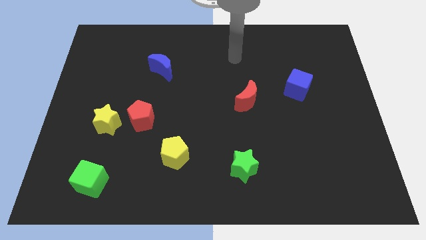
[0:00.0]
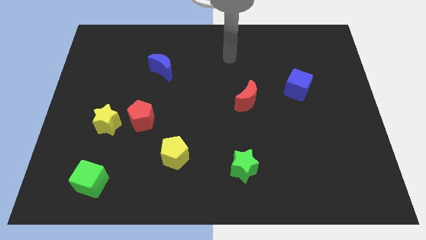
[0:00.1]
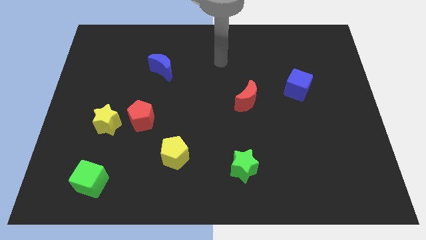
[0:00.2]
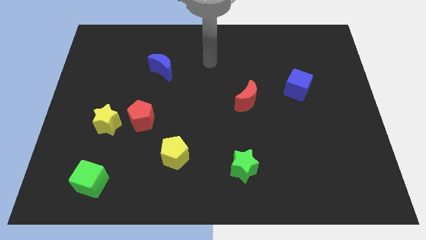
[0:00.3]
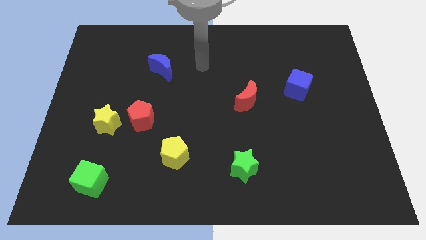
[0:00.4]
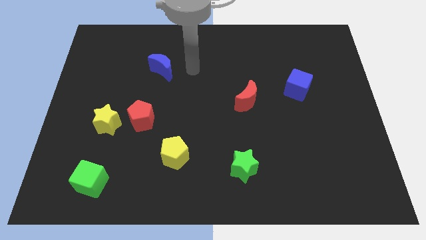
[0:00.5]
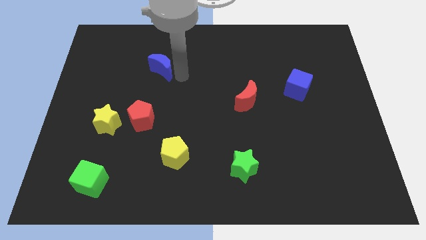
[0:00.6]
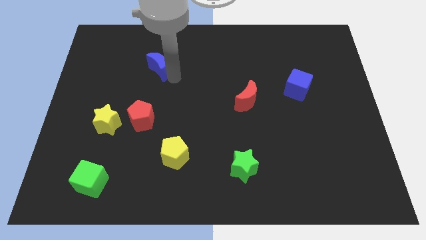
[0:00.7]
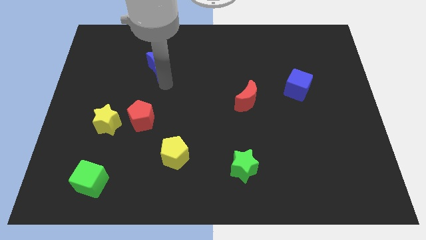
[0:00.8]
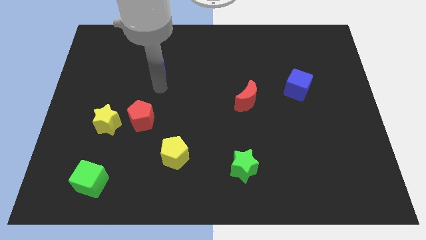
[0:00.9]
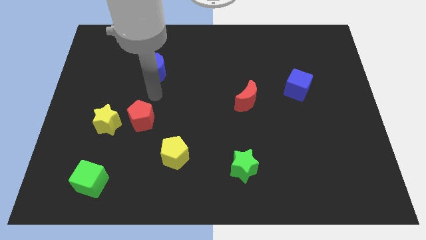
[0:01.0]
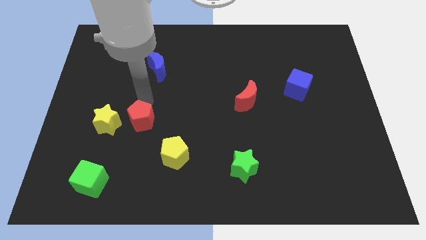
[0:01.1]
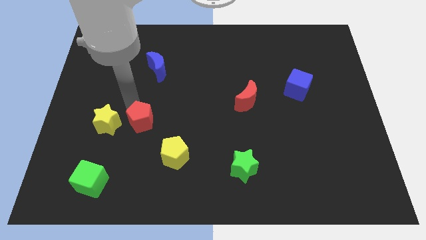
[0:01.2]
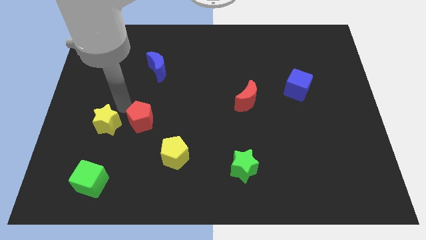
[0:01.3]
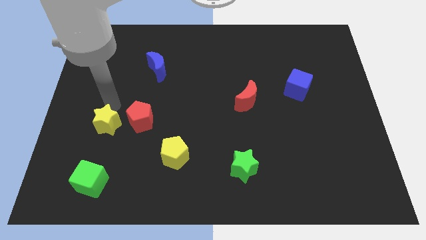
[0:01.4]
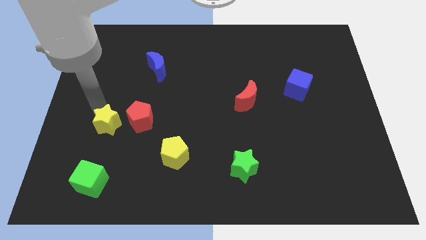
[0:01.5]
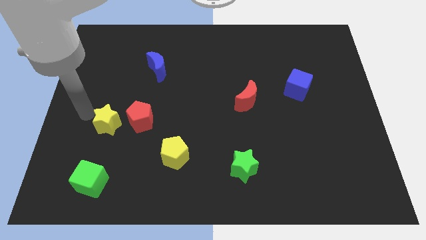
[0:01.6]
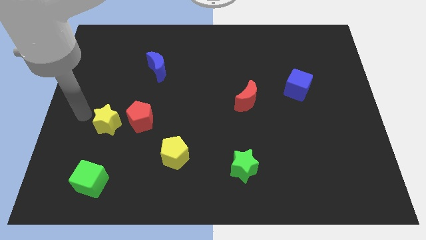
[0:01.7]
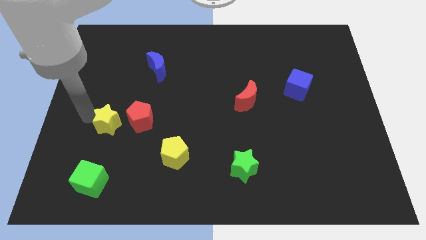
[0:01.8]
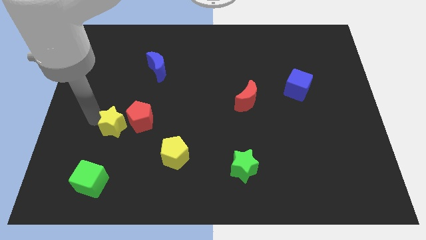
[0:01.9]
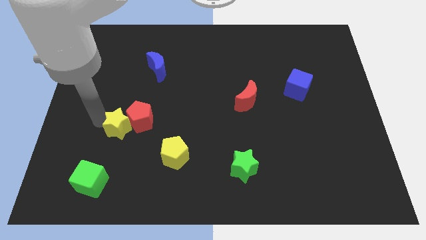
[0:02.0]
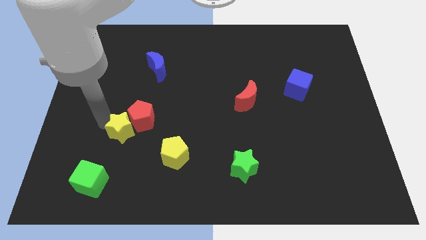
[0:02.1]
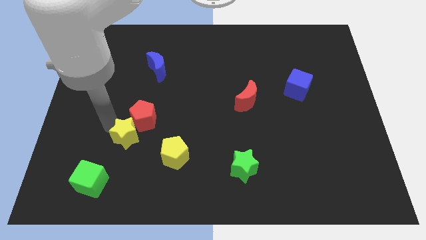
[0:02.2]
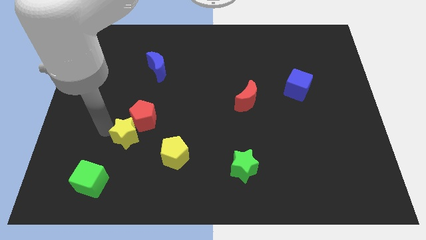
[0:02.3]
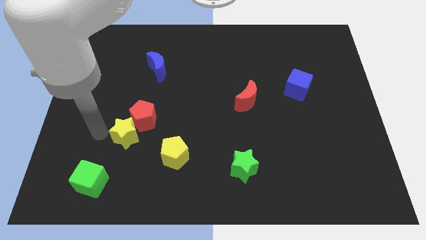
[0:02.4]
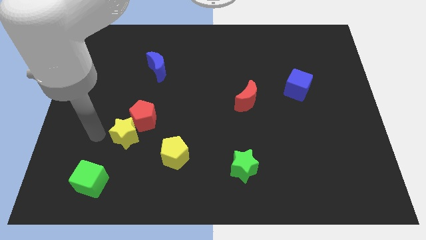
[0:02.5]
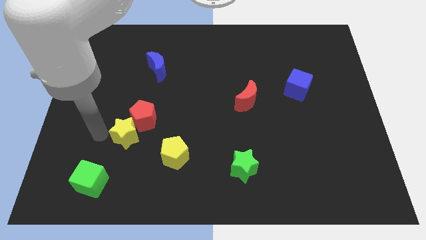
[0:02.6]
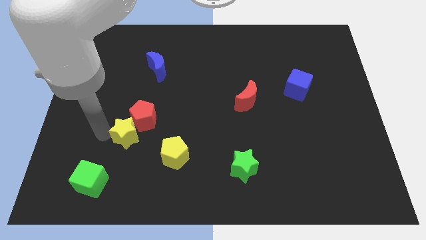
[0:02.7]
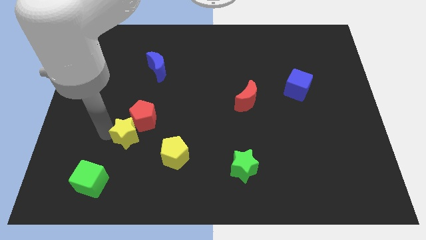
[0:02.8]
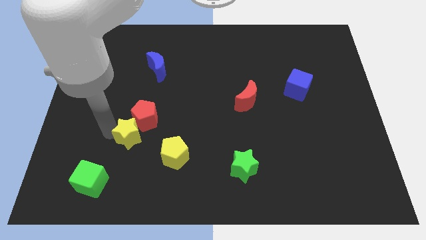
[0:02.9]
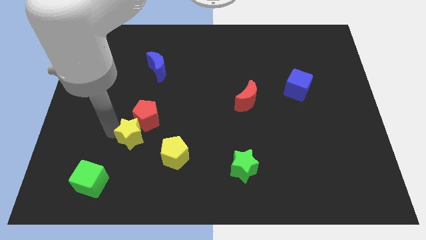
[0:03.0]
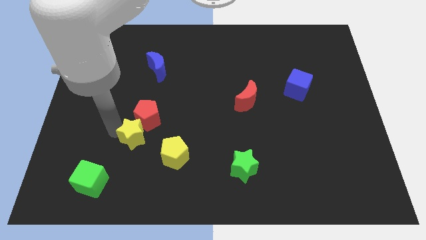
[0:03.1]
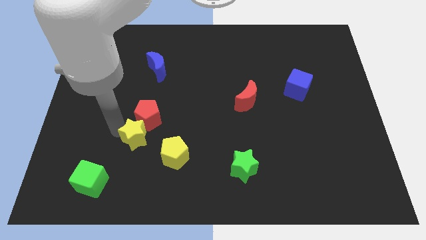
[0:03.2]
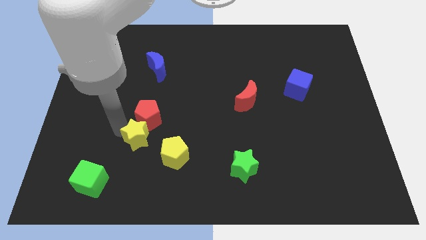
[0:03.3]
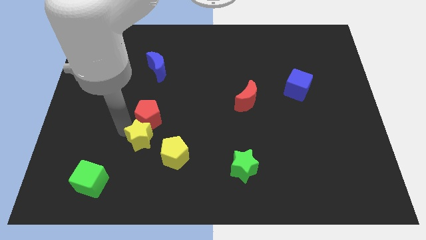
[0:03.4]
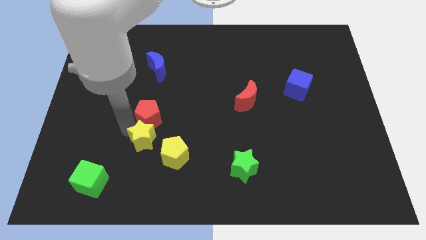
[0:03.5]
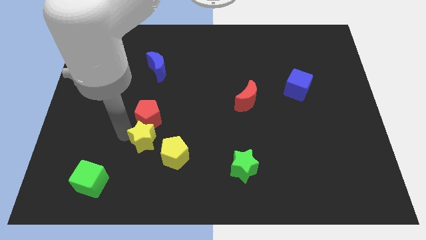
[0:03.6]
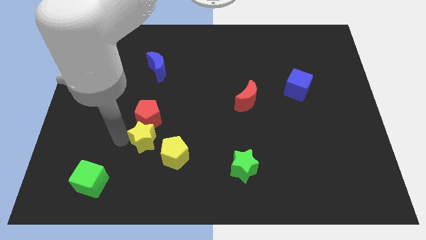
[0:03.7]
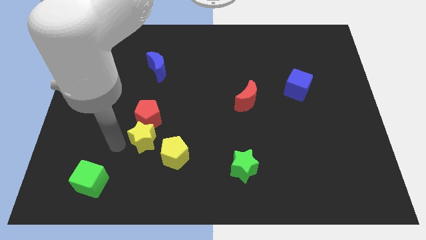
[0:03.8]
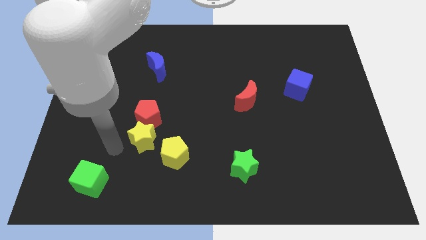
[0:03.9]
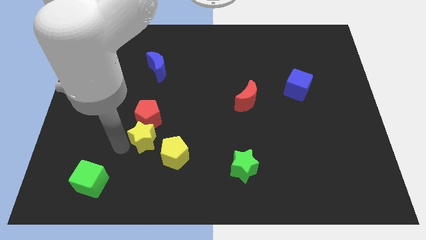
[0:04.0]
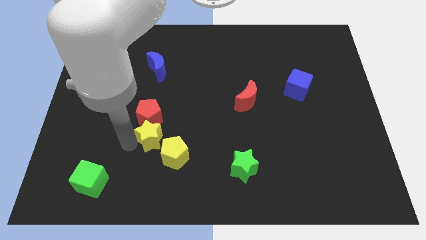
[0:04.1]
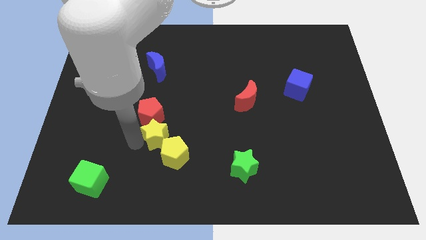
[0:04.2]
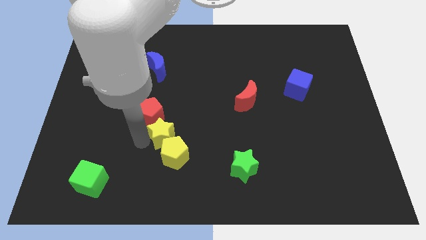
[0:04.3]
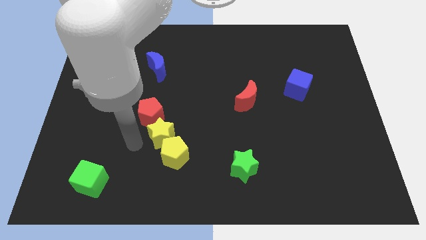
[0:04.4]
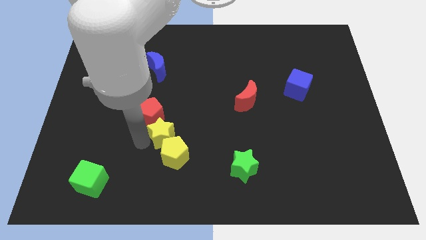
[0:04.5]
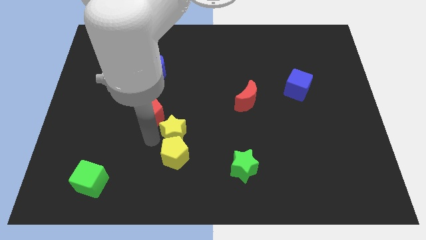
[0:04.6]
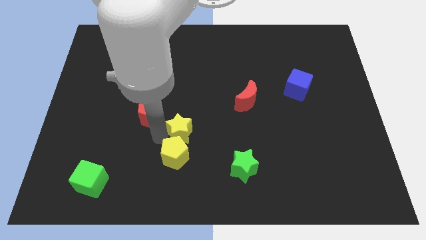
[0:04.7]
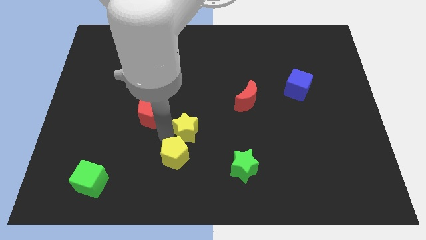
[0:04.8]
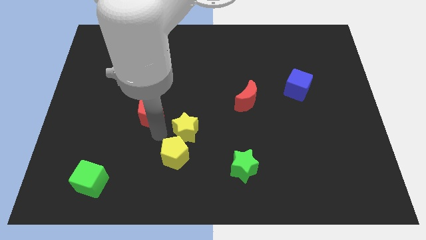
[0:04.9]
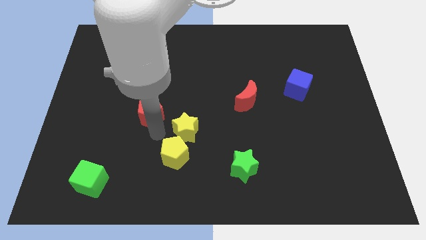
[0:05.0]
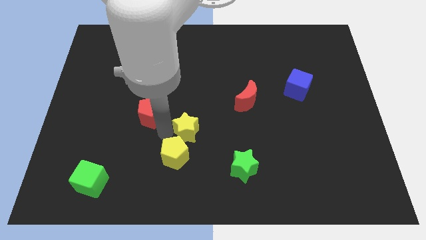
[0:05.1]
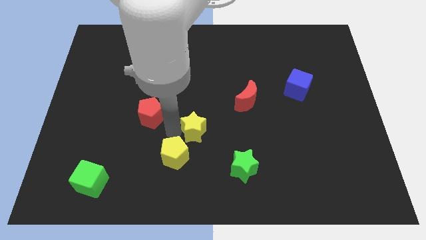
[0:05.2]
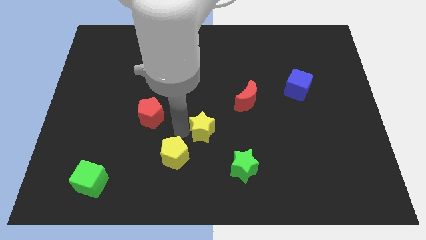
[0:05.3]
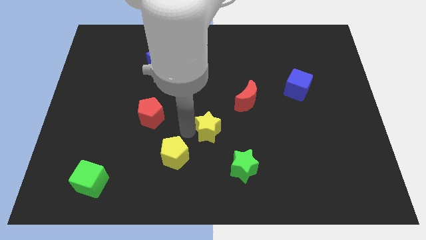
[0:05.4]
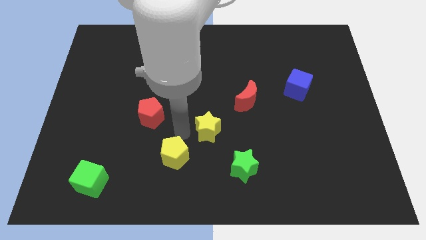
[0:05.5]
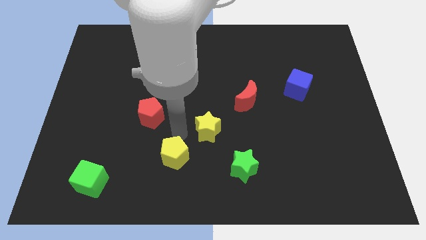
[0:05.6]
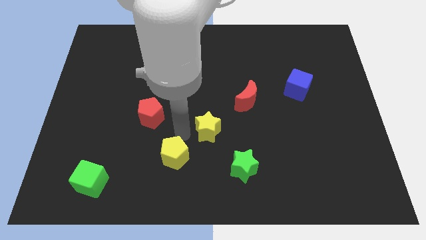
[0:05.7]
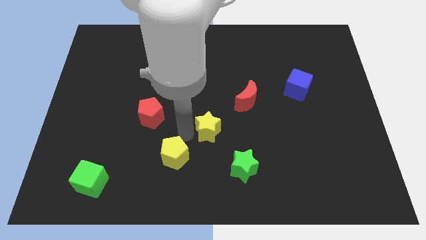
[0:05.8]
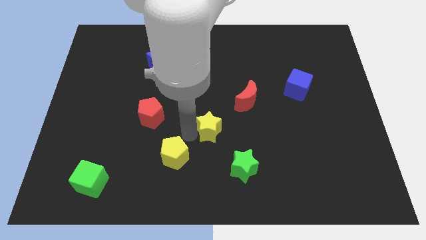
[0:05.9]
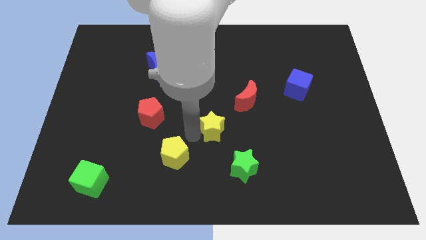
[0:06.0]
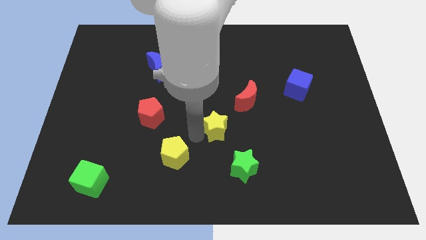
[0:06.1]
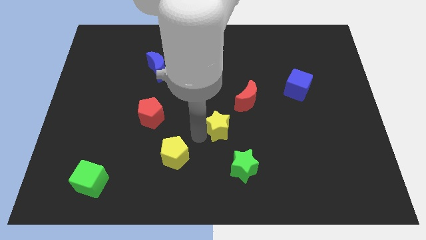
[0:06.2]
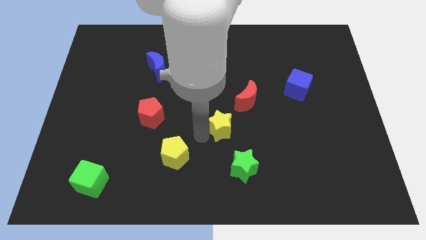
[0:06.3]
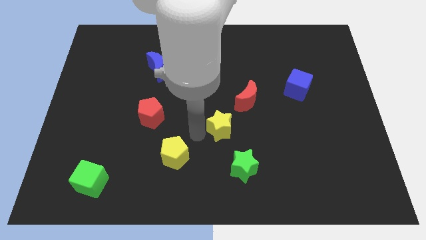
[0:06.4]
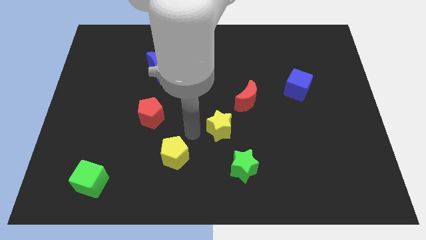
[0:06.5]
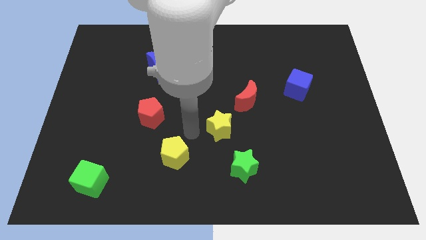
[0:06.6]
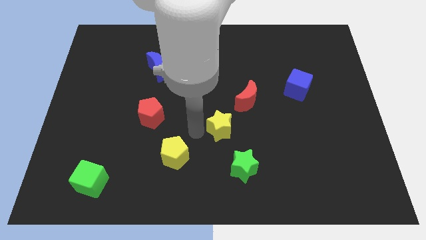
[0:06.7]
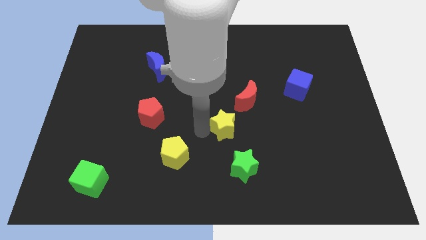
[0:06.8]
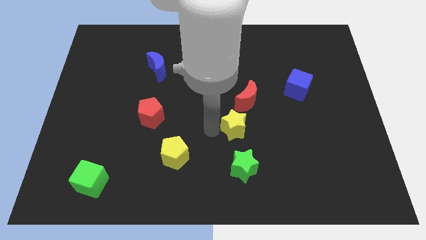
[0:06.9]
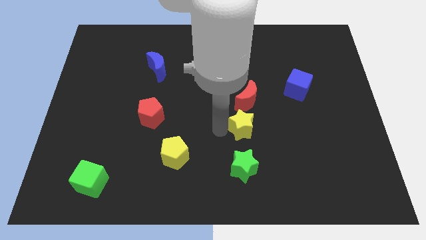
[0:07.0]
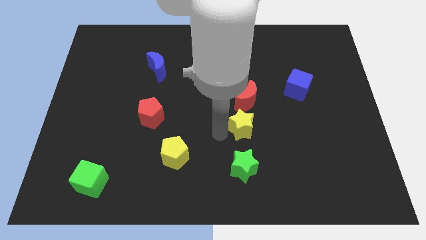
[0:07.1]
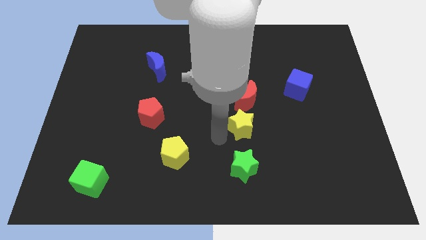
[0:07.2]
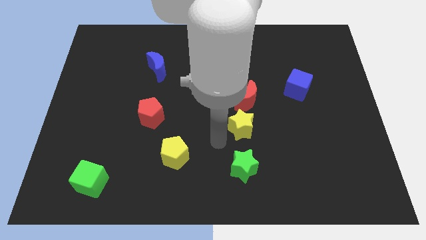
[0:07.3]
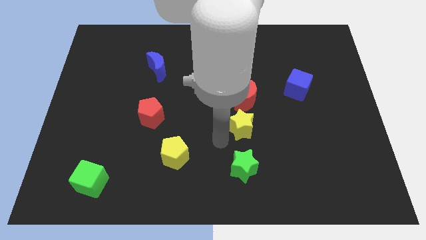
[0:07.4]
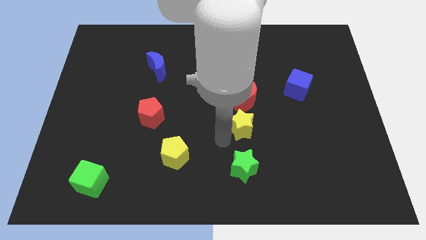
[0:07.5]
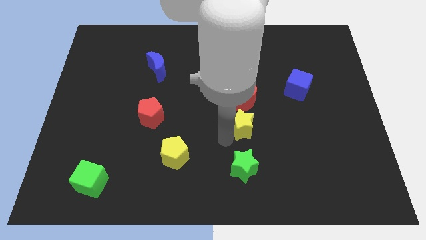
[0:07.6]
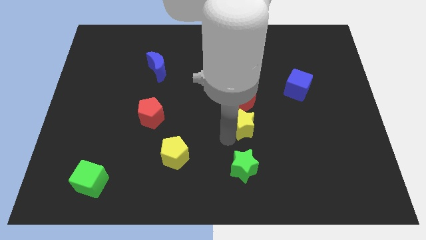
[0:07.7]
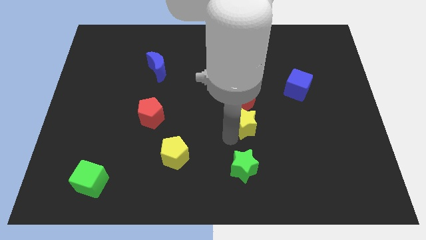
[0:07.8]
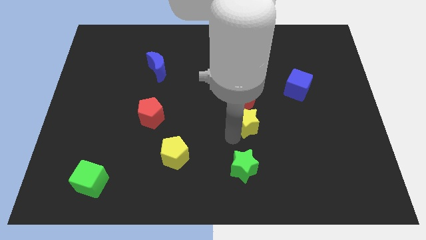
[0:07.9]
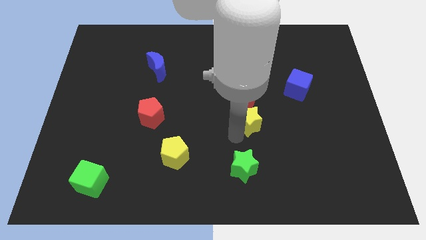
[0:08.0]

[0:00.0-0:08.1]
push the yellow star to the bottom right side of the red moon
